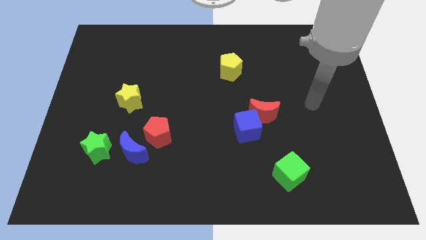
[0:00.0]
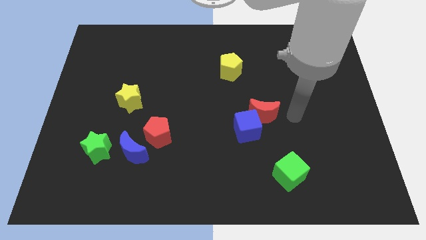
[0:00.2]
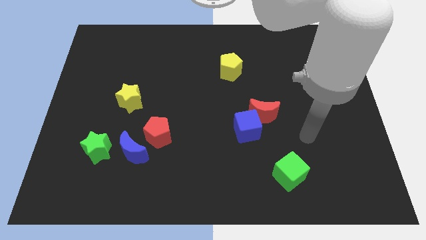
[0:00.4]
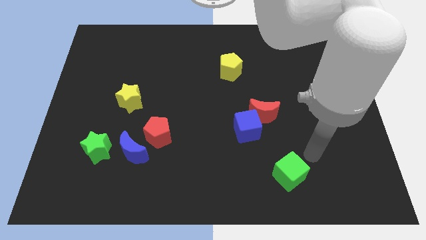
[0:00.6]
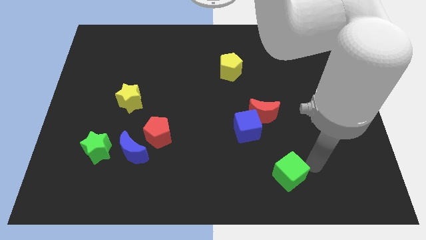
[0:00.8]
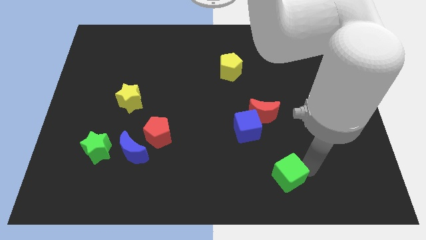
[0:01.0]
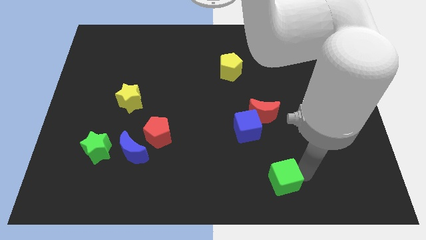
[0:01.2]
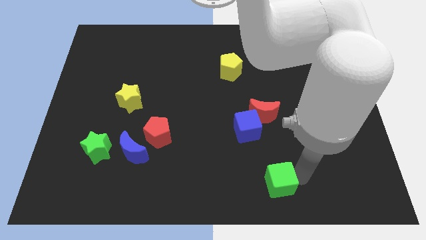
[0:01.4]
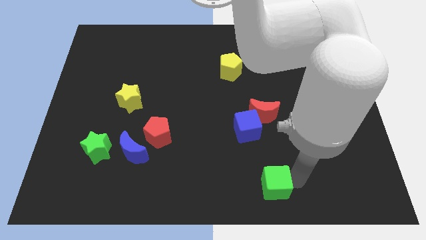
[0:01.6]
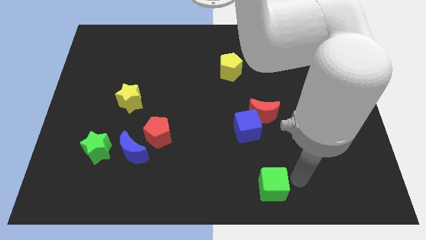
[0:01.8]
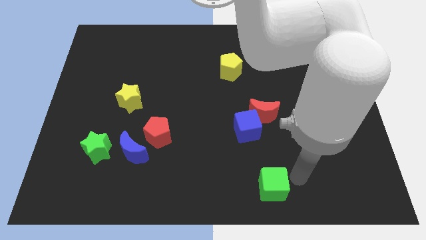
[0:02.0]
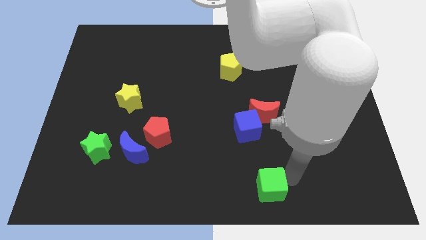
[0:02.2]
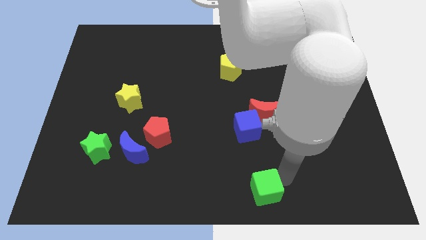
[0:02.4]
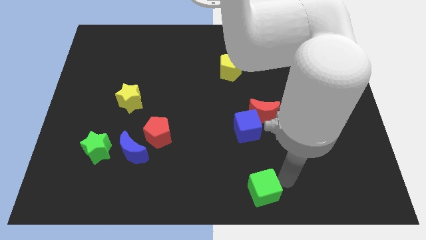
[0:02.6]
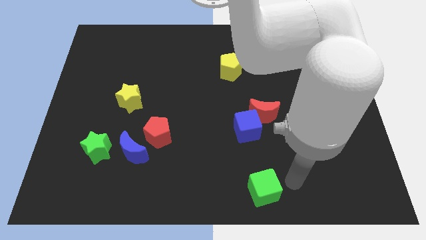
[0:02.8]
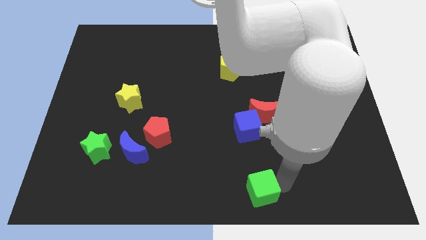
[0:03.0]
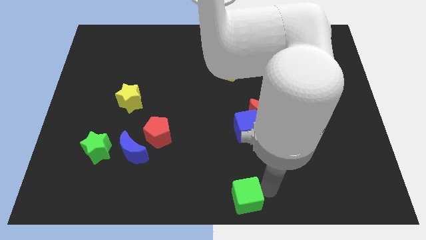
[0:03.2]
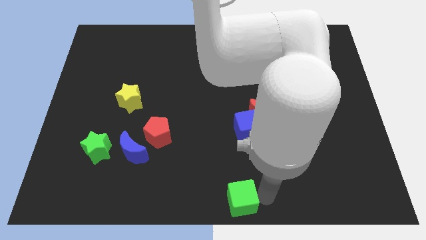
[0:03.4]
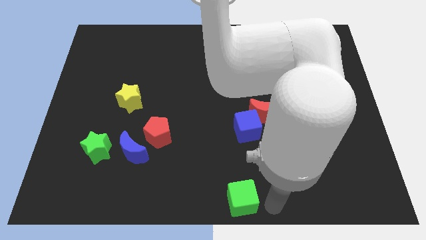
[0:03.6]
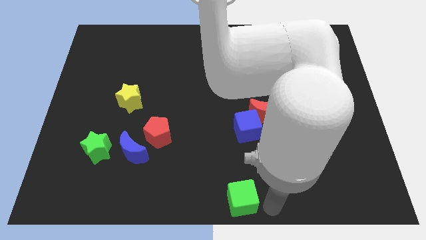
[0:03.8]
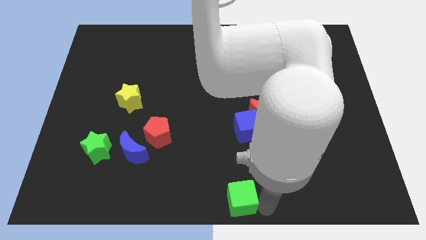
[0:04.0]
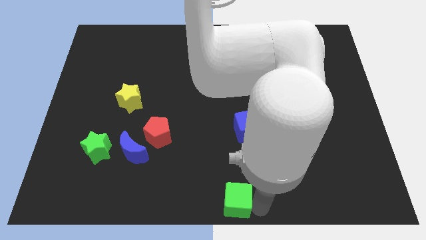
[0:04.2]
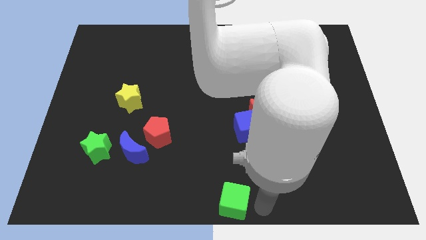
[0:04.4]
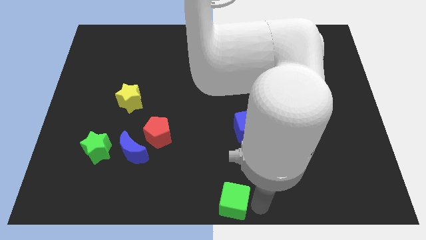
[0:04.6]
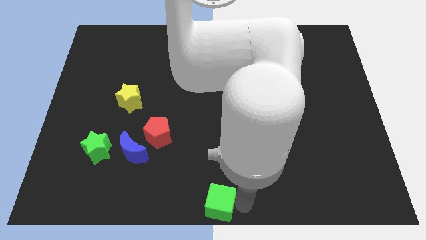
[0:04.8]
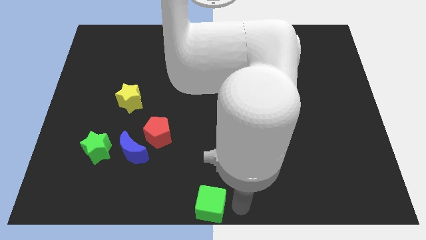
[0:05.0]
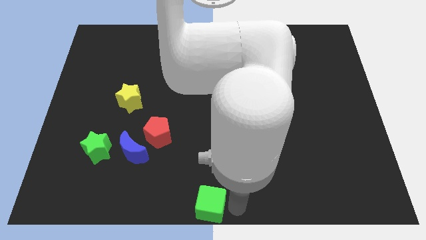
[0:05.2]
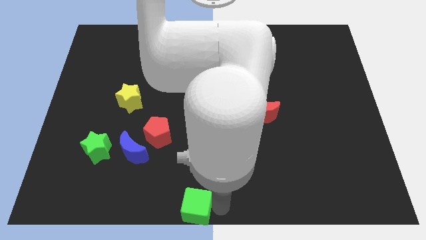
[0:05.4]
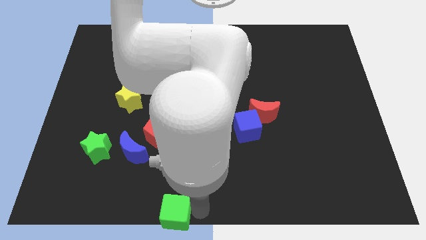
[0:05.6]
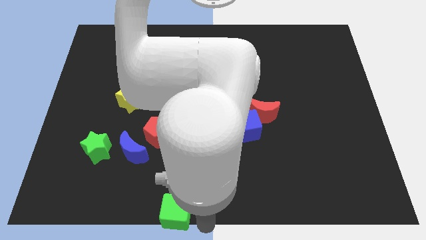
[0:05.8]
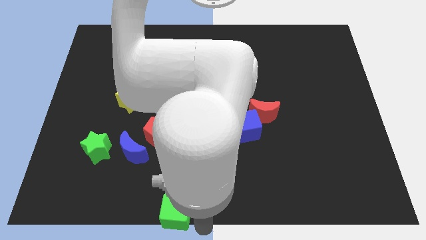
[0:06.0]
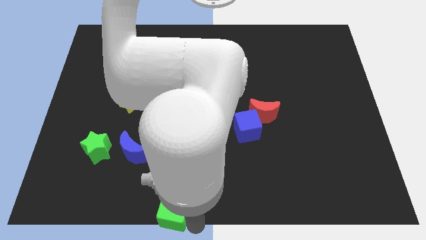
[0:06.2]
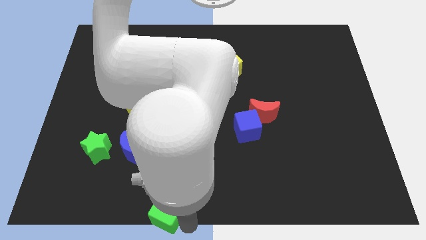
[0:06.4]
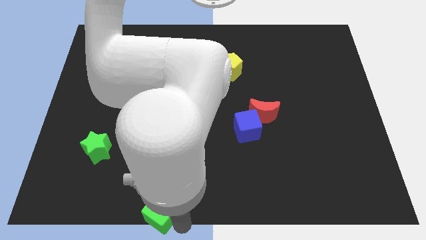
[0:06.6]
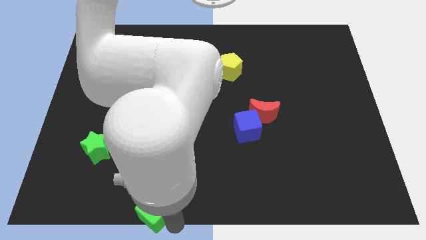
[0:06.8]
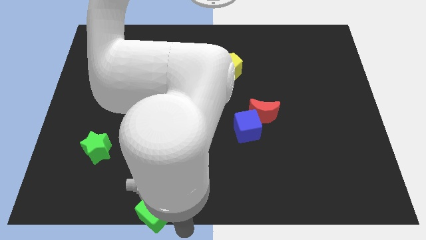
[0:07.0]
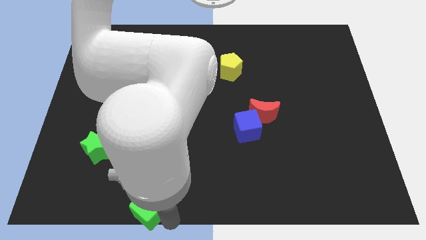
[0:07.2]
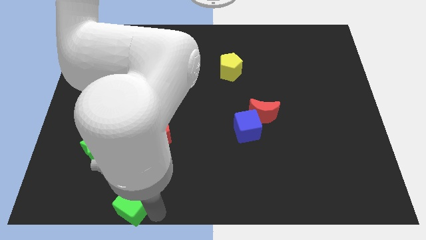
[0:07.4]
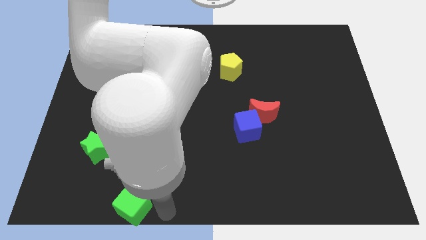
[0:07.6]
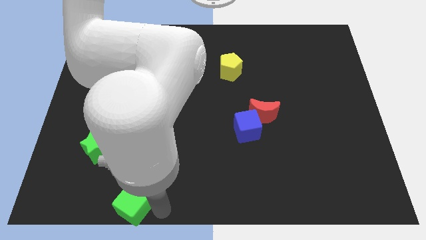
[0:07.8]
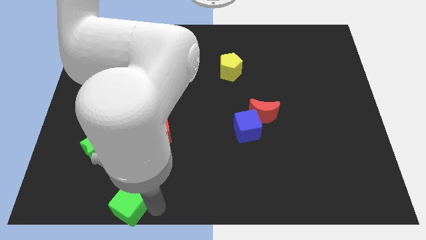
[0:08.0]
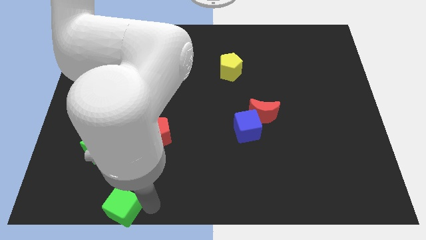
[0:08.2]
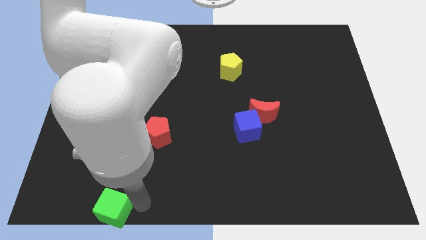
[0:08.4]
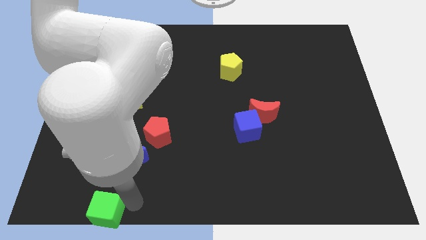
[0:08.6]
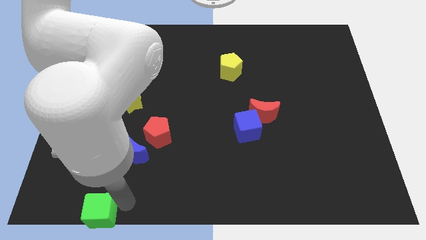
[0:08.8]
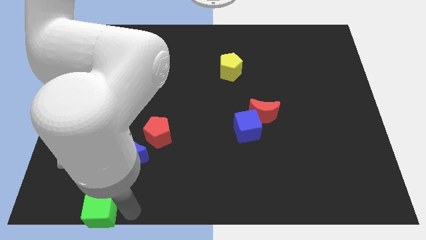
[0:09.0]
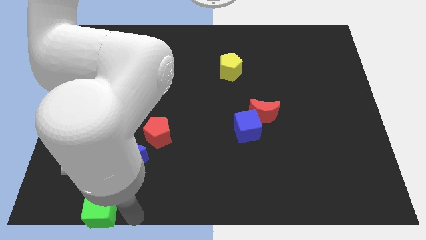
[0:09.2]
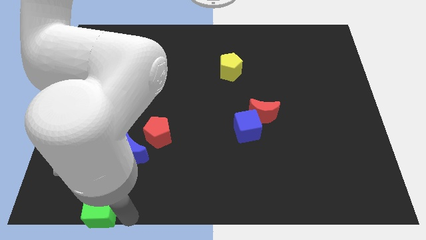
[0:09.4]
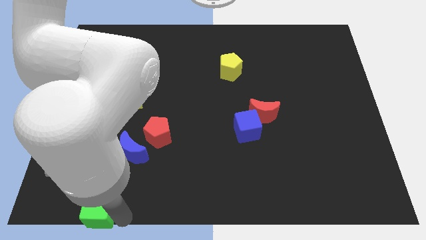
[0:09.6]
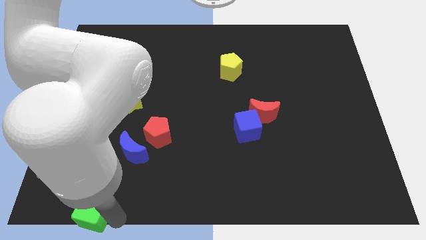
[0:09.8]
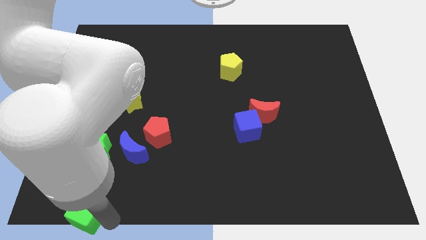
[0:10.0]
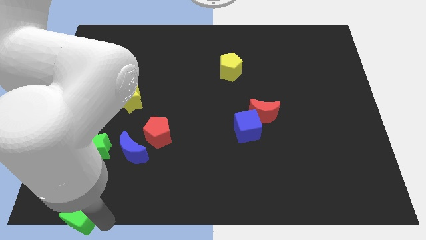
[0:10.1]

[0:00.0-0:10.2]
push the green cube to the bottom left corner

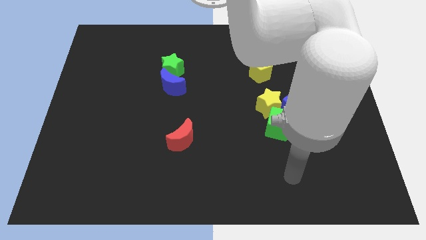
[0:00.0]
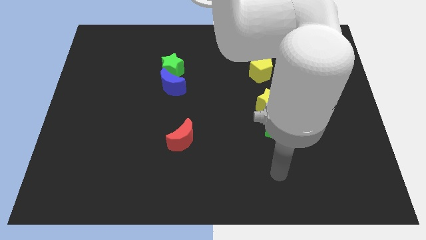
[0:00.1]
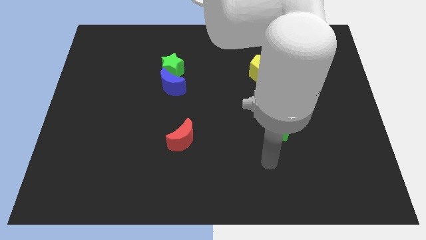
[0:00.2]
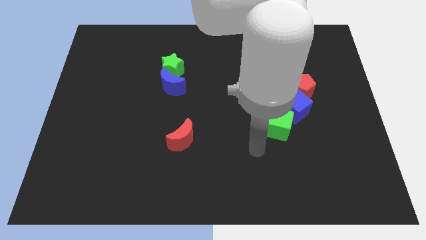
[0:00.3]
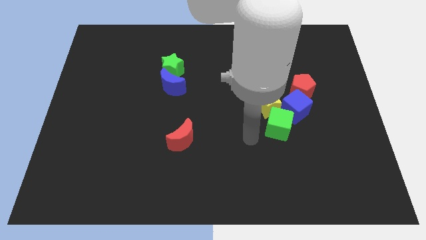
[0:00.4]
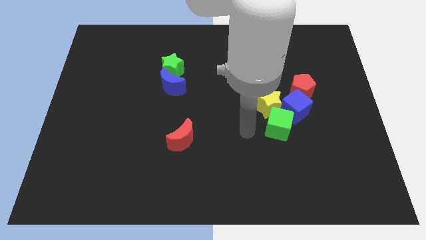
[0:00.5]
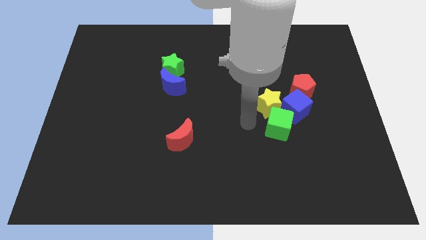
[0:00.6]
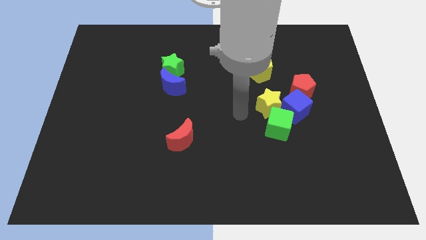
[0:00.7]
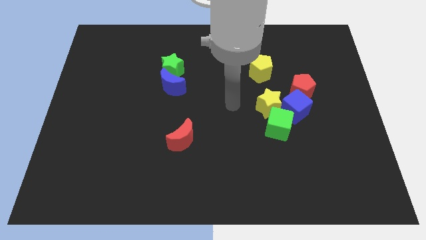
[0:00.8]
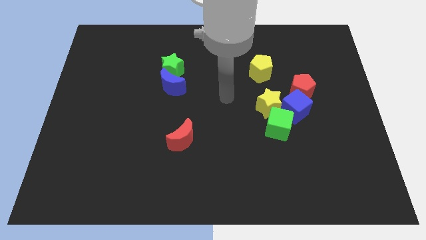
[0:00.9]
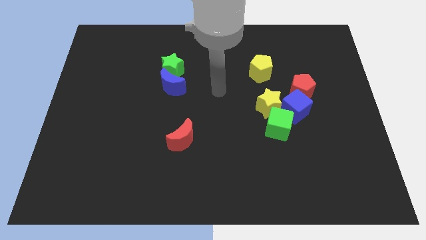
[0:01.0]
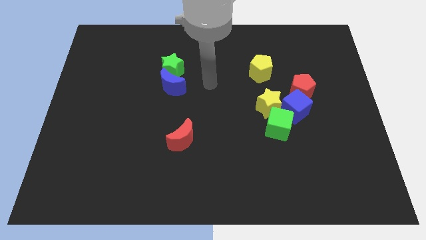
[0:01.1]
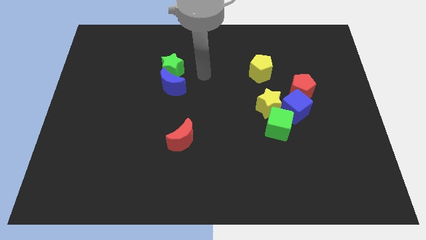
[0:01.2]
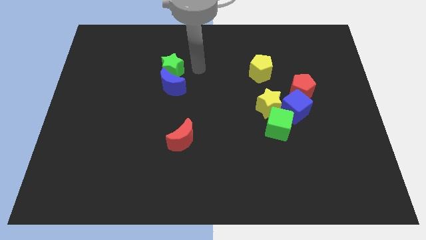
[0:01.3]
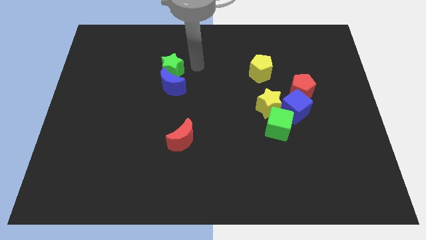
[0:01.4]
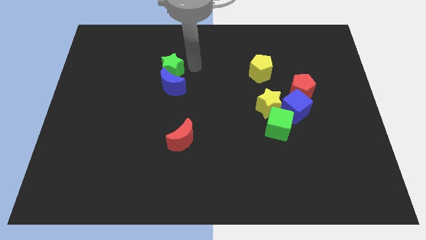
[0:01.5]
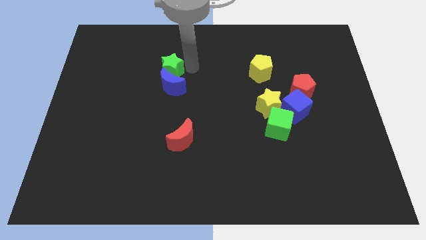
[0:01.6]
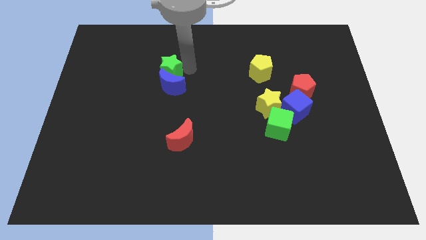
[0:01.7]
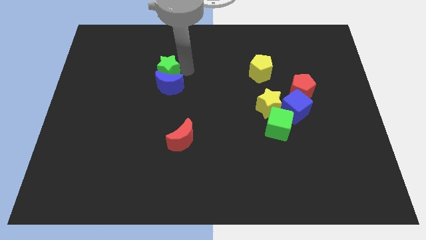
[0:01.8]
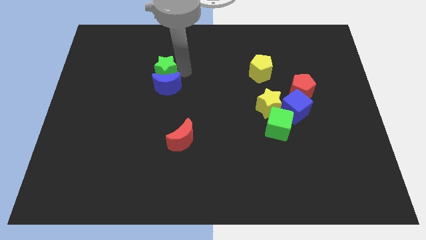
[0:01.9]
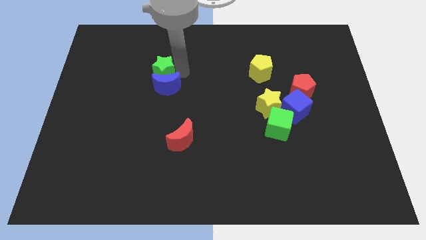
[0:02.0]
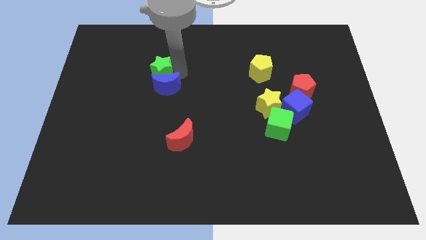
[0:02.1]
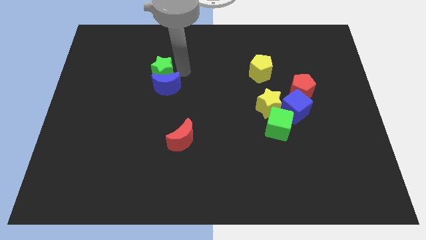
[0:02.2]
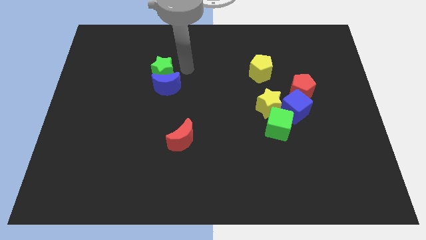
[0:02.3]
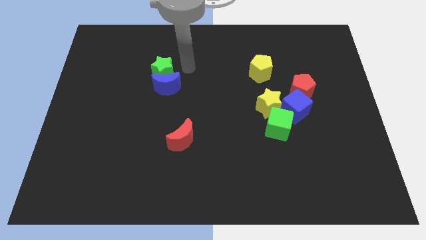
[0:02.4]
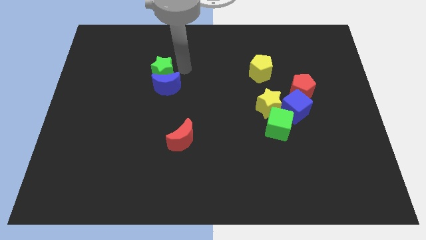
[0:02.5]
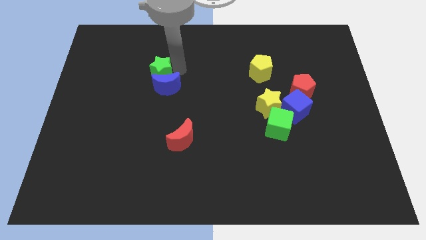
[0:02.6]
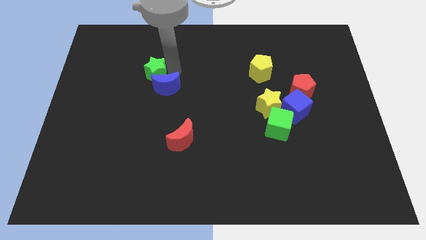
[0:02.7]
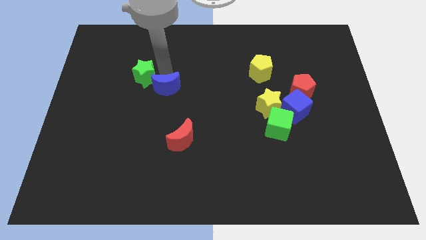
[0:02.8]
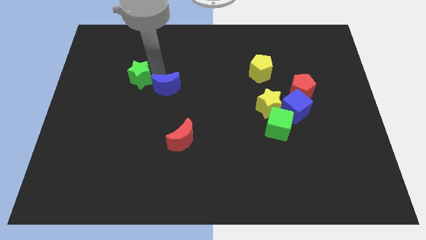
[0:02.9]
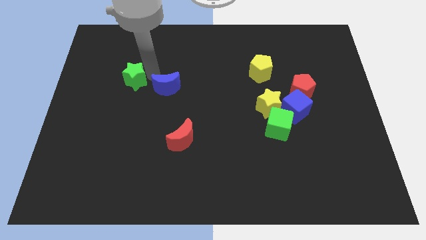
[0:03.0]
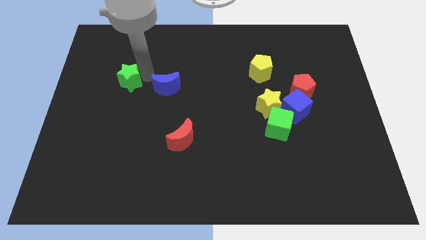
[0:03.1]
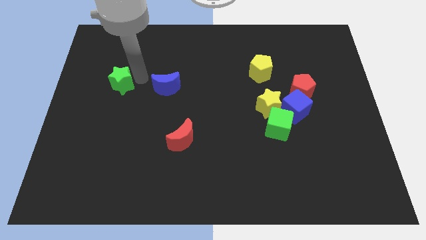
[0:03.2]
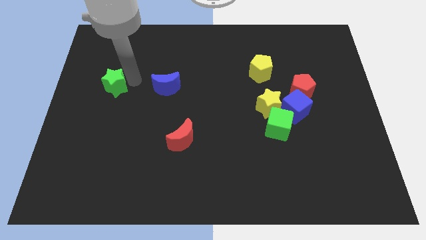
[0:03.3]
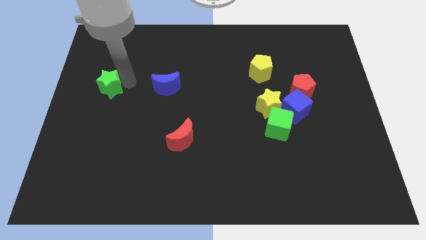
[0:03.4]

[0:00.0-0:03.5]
push the green star to the center left
